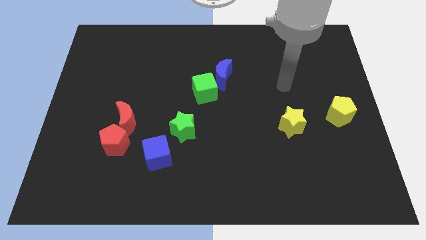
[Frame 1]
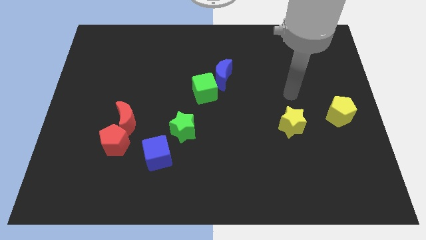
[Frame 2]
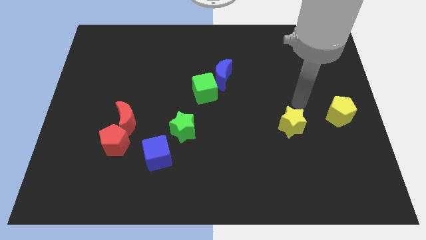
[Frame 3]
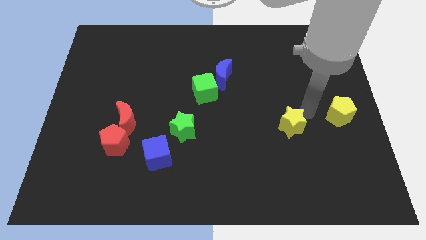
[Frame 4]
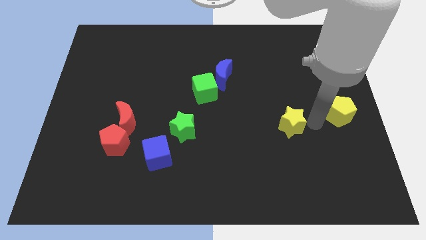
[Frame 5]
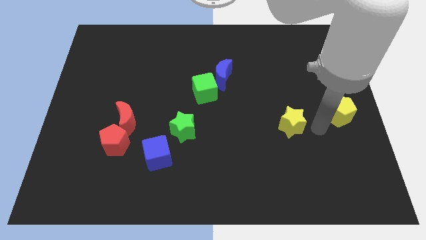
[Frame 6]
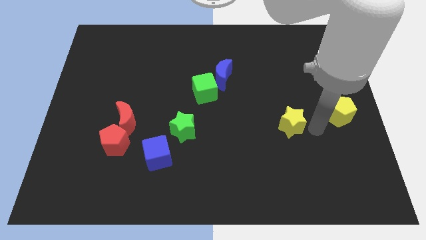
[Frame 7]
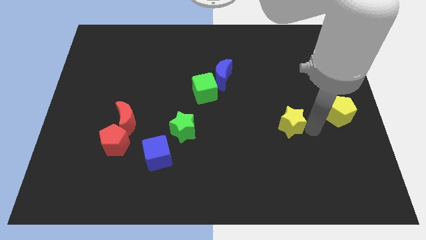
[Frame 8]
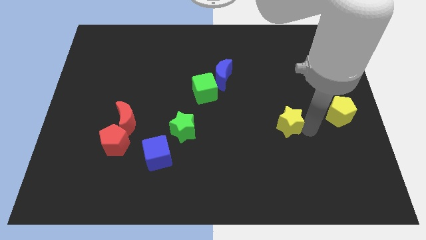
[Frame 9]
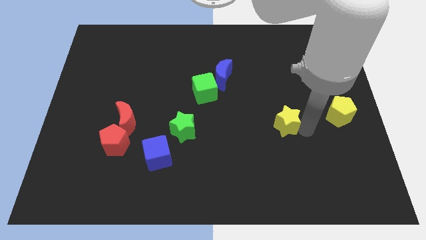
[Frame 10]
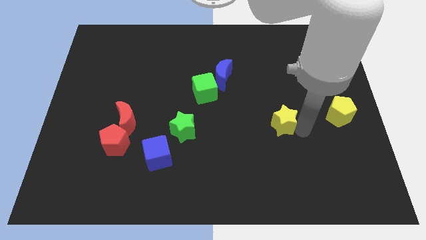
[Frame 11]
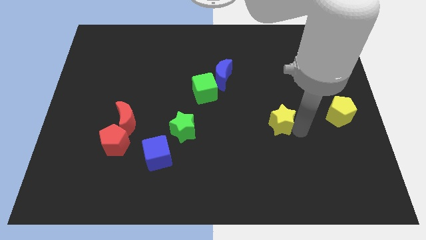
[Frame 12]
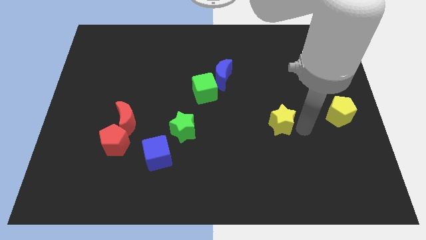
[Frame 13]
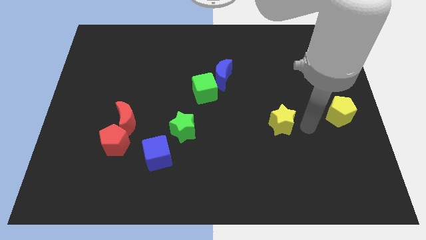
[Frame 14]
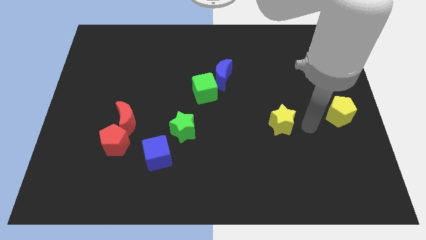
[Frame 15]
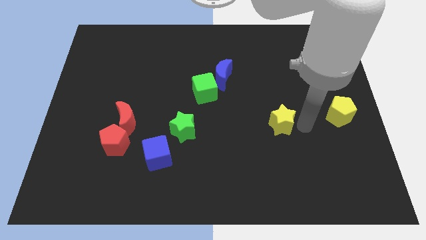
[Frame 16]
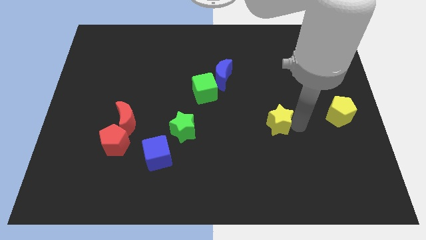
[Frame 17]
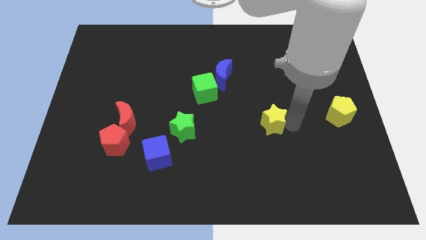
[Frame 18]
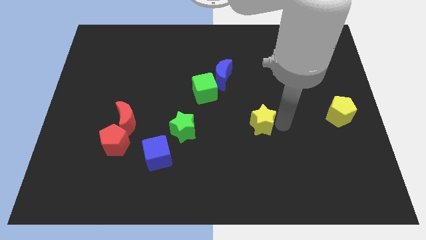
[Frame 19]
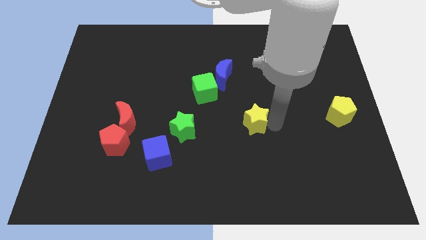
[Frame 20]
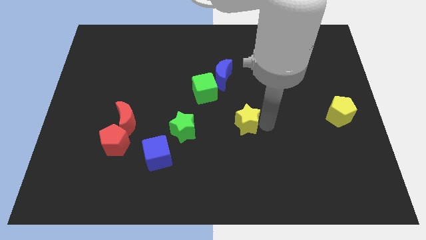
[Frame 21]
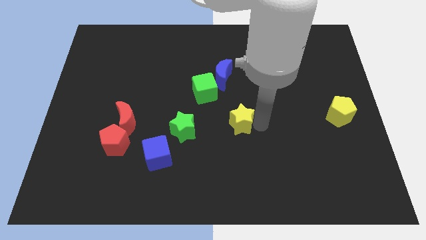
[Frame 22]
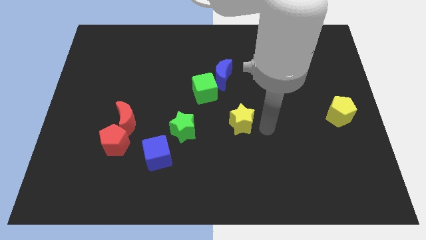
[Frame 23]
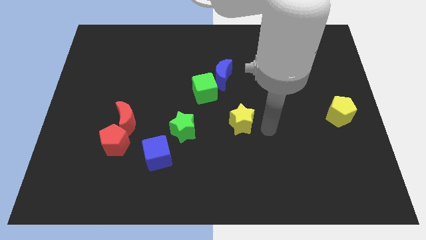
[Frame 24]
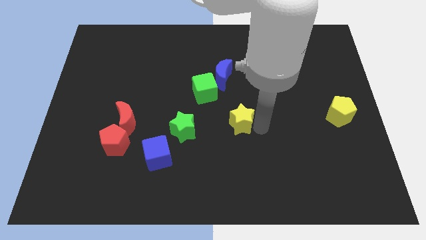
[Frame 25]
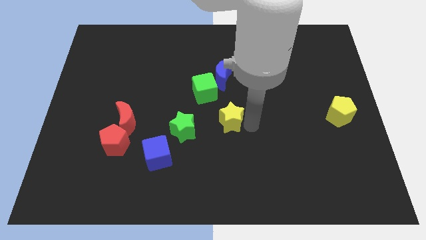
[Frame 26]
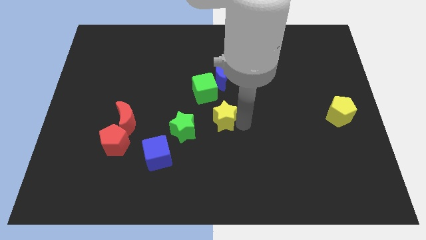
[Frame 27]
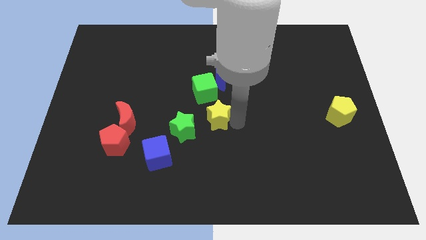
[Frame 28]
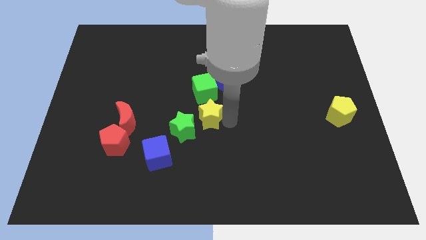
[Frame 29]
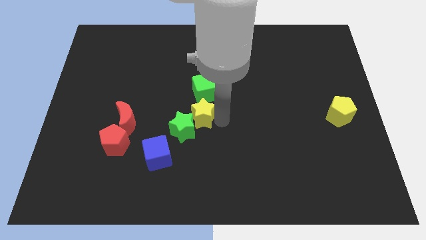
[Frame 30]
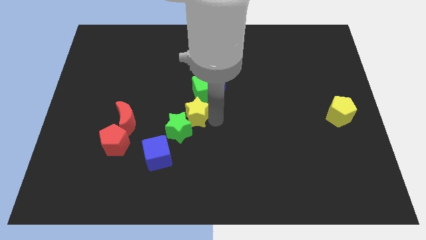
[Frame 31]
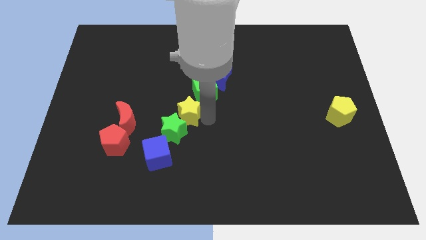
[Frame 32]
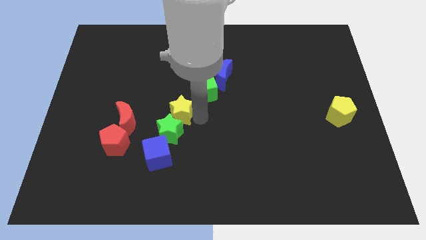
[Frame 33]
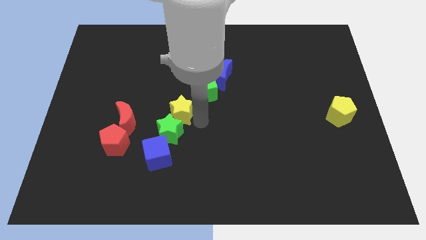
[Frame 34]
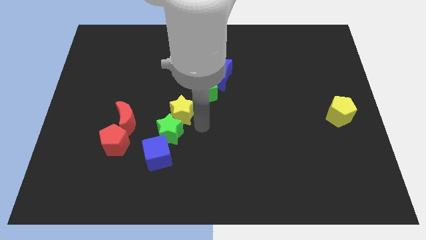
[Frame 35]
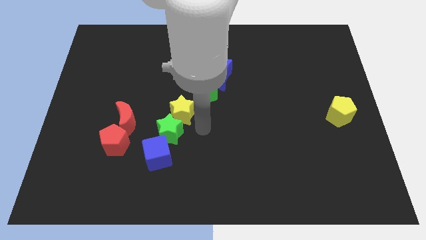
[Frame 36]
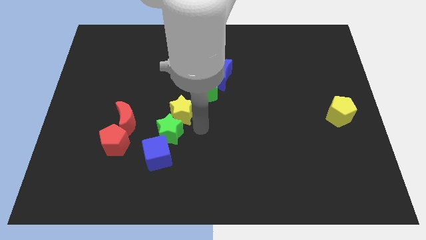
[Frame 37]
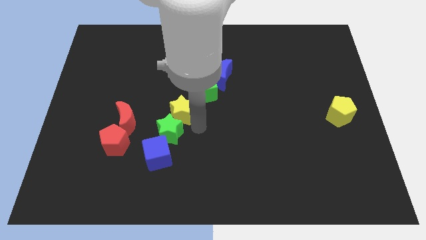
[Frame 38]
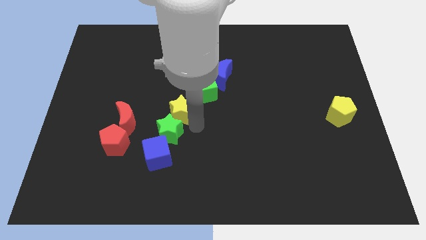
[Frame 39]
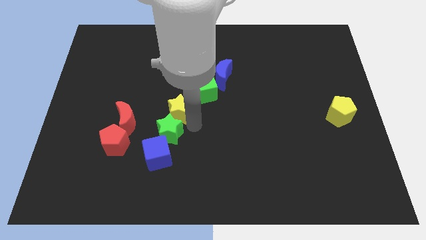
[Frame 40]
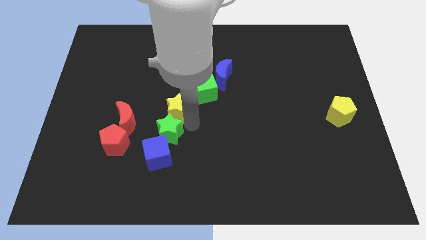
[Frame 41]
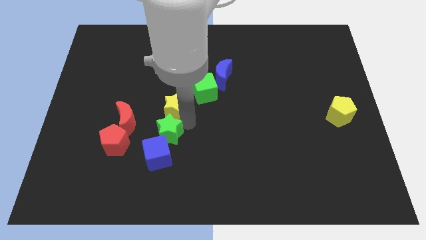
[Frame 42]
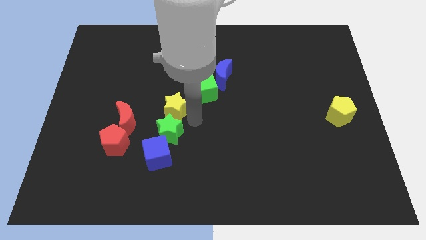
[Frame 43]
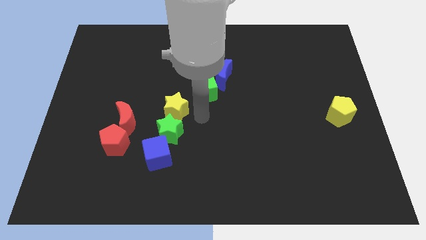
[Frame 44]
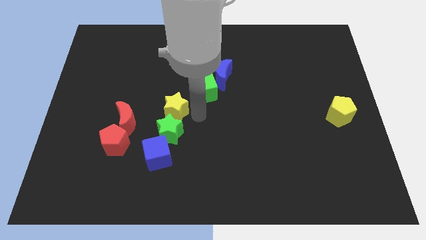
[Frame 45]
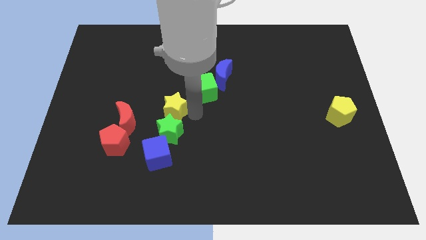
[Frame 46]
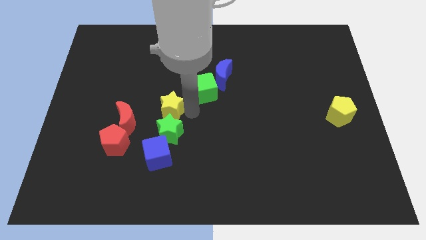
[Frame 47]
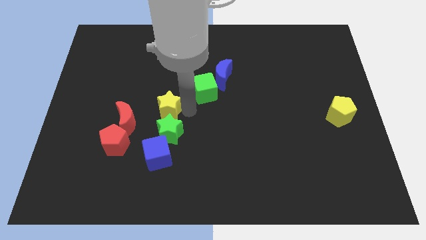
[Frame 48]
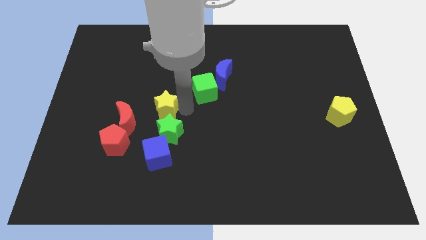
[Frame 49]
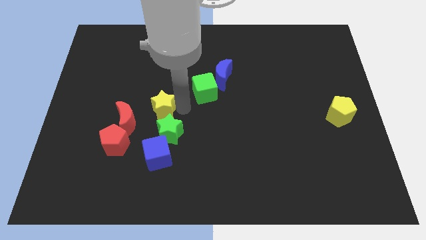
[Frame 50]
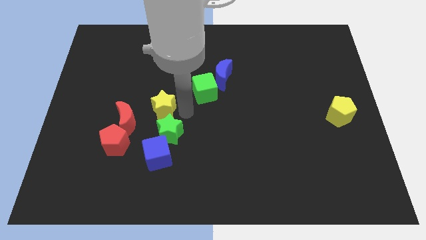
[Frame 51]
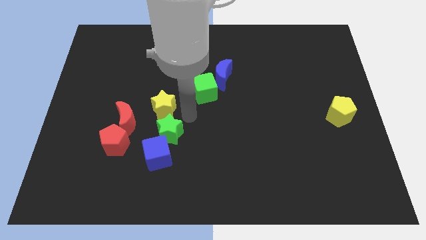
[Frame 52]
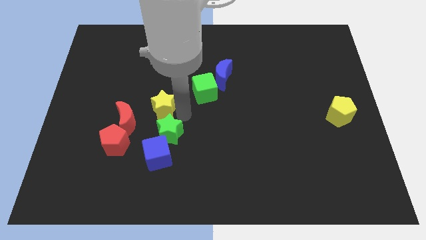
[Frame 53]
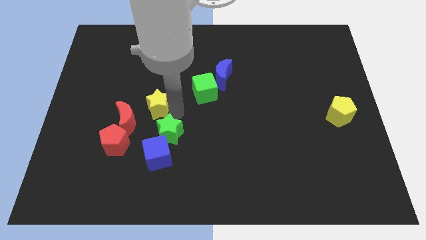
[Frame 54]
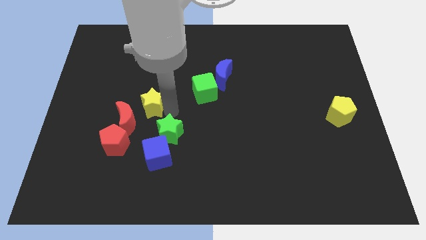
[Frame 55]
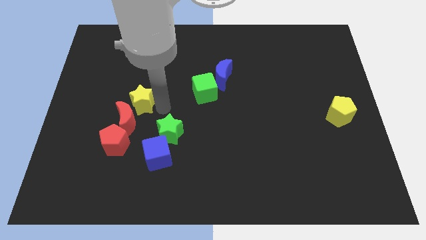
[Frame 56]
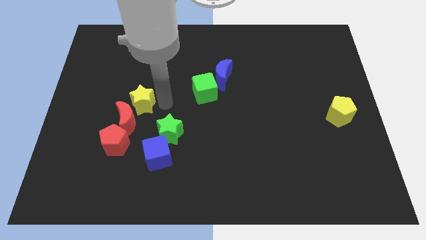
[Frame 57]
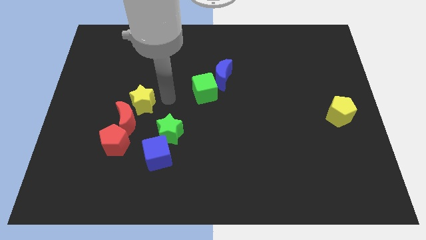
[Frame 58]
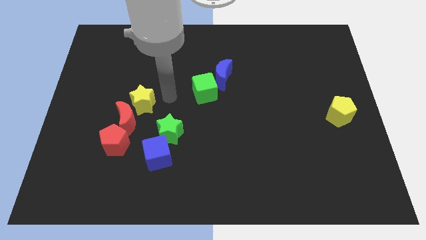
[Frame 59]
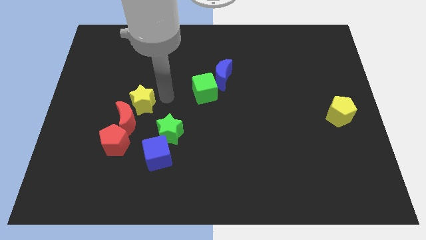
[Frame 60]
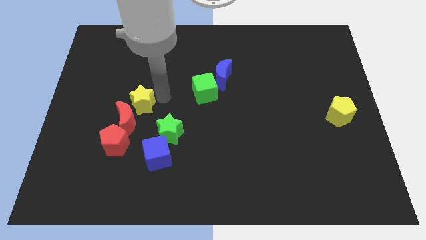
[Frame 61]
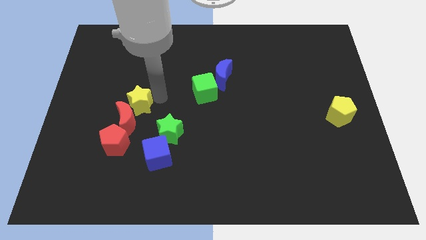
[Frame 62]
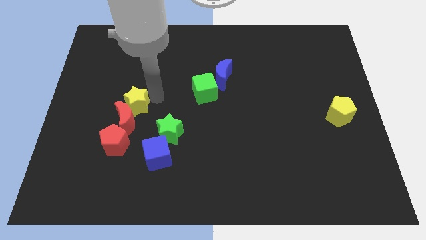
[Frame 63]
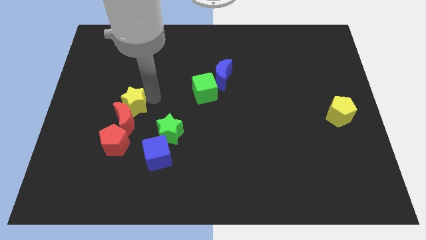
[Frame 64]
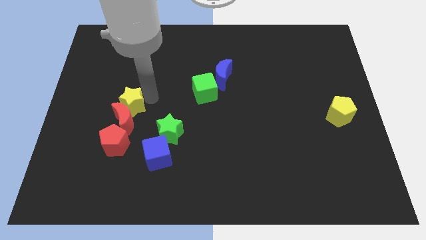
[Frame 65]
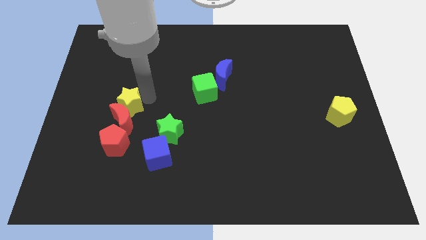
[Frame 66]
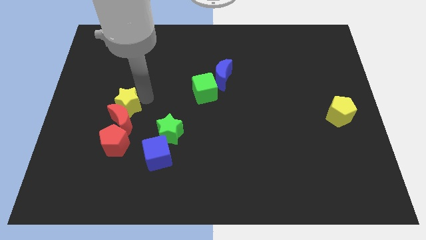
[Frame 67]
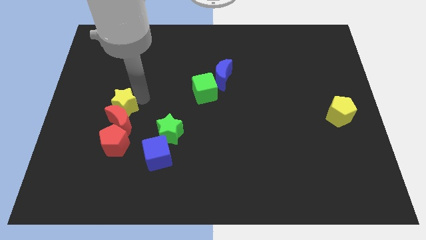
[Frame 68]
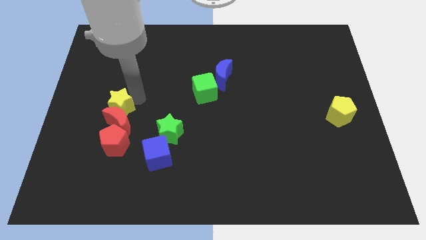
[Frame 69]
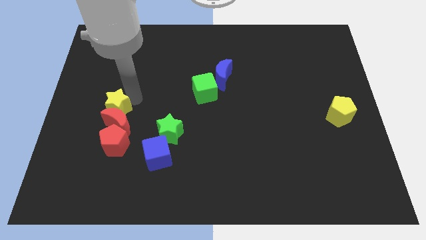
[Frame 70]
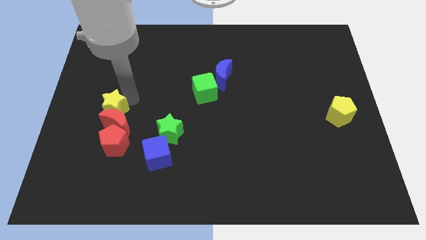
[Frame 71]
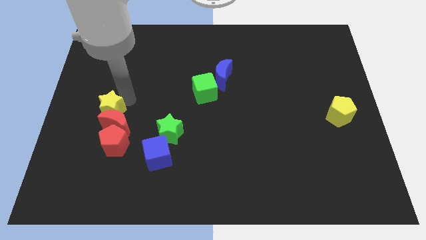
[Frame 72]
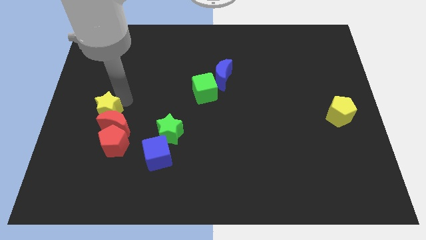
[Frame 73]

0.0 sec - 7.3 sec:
move the yellow star to the top left of the red pentagon

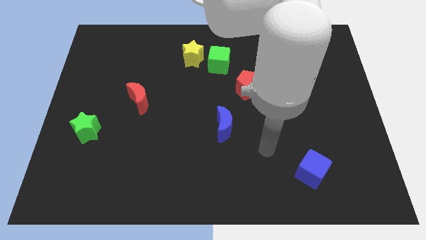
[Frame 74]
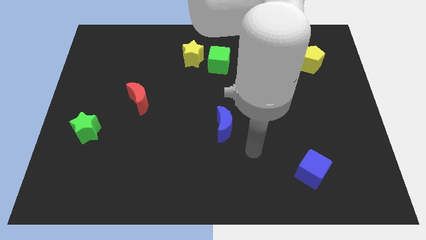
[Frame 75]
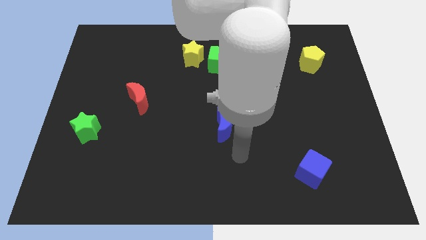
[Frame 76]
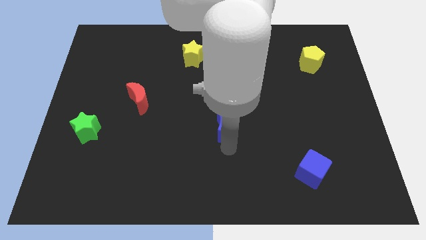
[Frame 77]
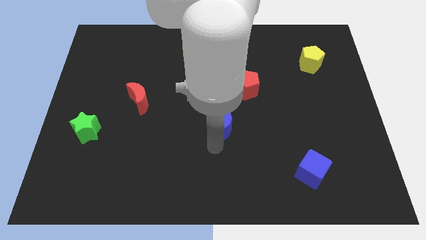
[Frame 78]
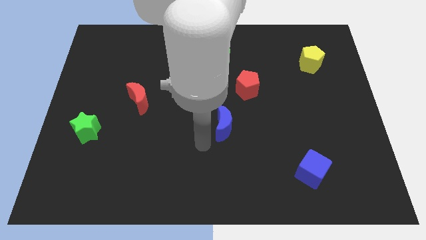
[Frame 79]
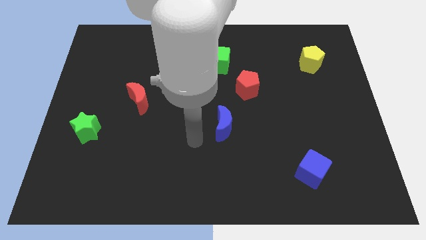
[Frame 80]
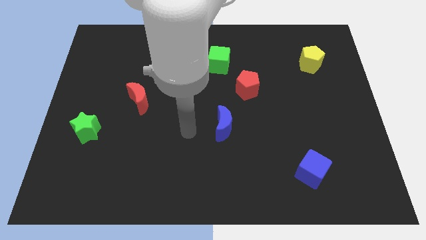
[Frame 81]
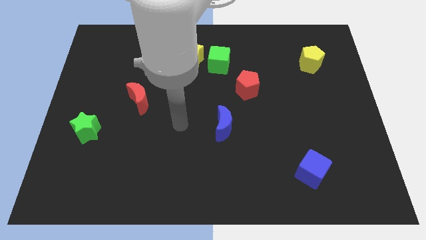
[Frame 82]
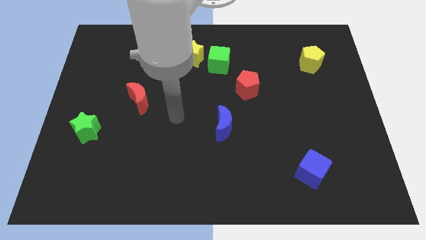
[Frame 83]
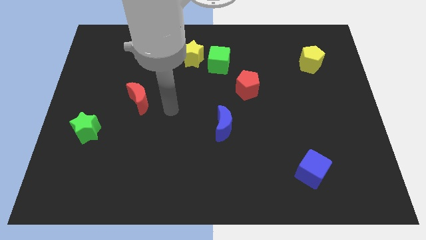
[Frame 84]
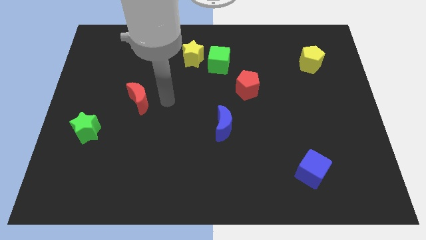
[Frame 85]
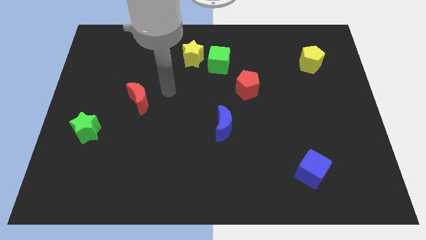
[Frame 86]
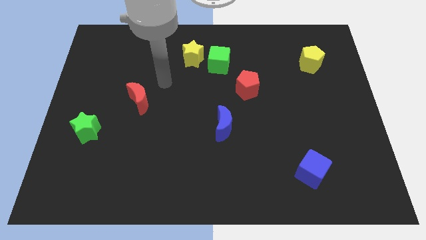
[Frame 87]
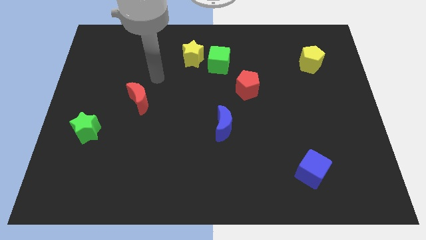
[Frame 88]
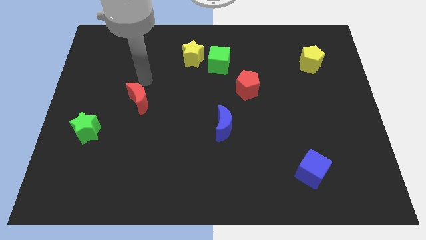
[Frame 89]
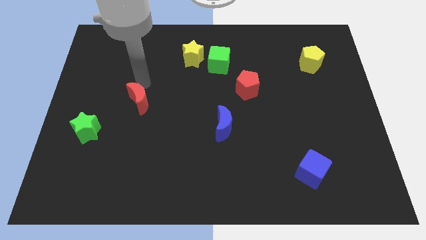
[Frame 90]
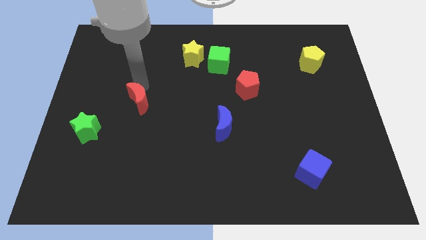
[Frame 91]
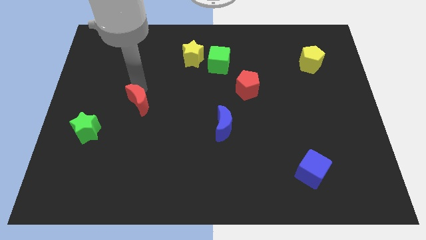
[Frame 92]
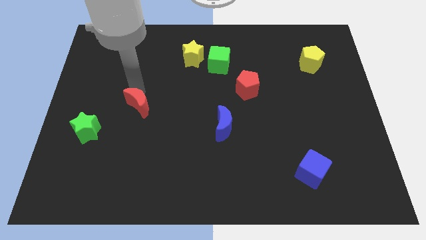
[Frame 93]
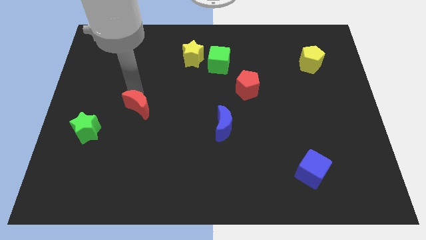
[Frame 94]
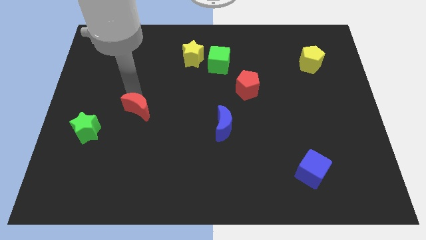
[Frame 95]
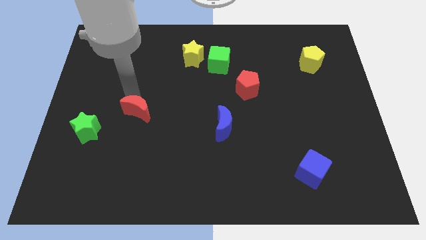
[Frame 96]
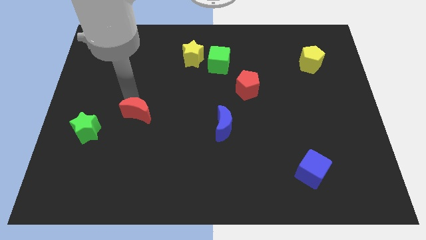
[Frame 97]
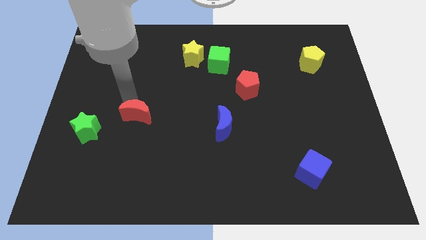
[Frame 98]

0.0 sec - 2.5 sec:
move the red moon just right of the green star
